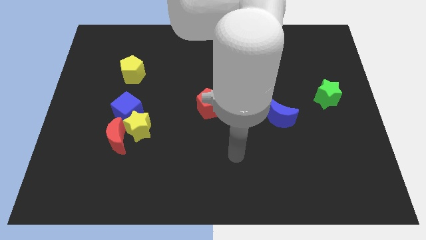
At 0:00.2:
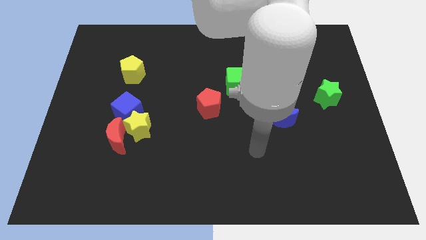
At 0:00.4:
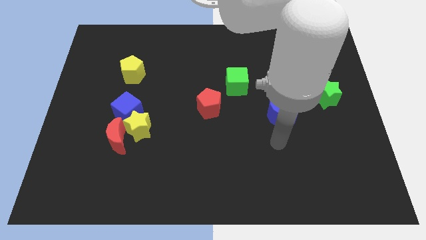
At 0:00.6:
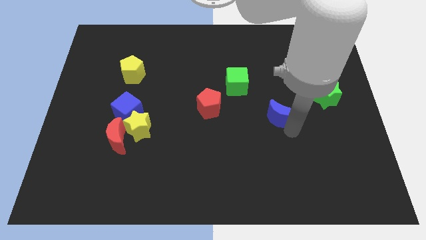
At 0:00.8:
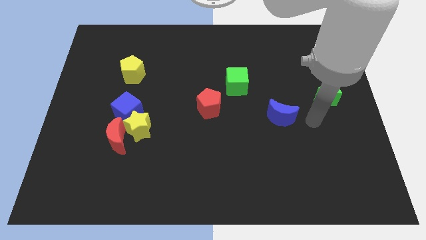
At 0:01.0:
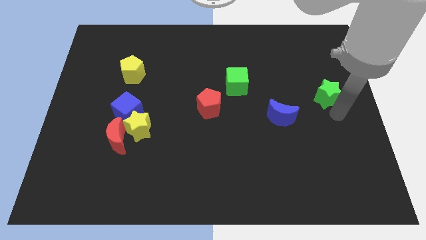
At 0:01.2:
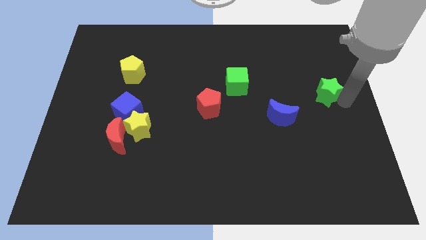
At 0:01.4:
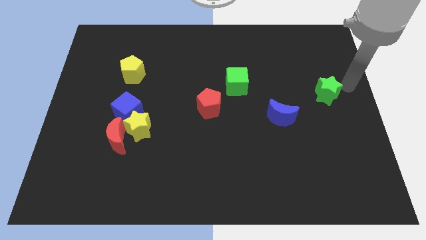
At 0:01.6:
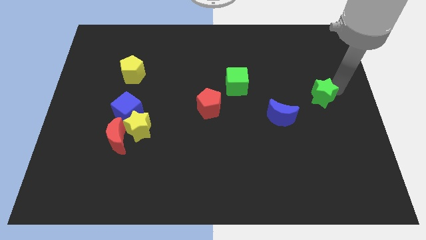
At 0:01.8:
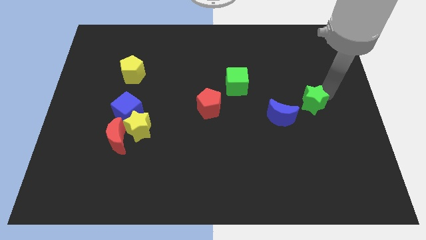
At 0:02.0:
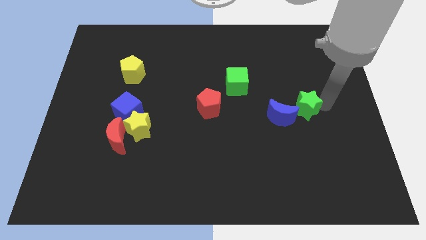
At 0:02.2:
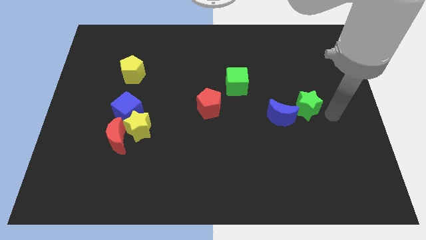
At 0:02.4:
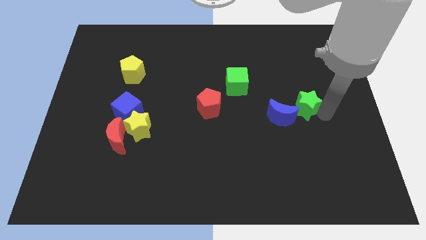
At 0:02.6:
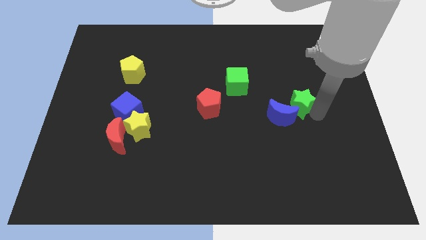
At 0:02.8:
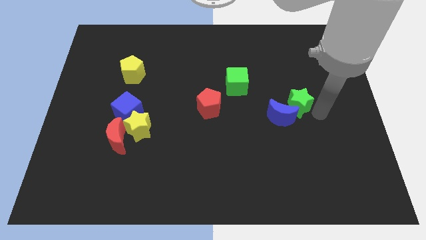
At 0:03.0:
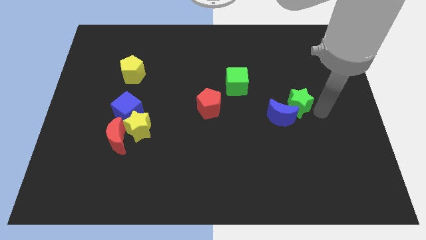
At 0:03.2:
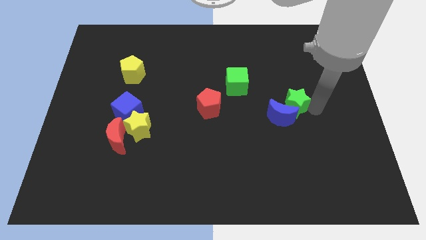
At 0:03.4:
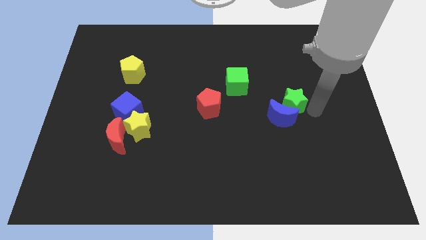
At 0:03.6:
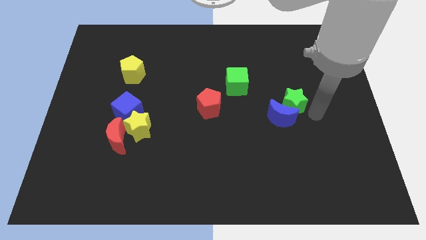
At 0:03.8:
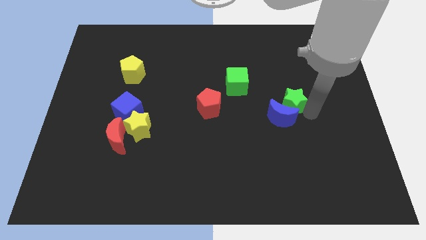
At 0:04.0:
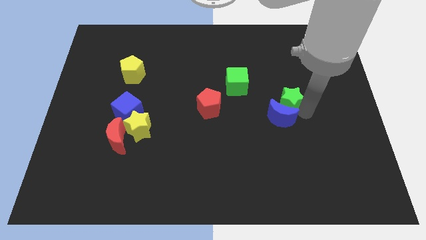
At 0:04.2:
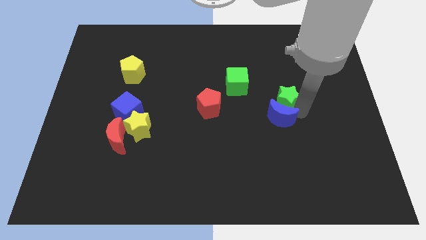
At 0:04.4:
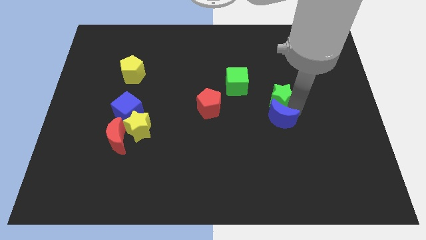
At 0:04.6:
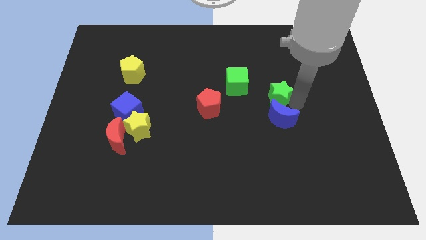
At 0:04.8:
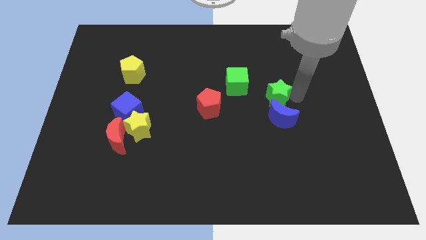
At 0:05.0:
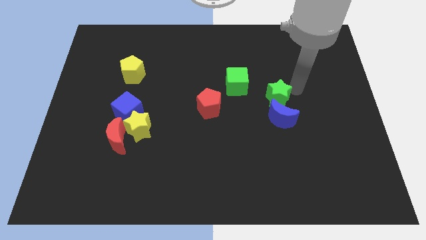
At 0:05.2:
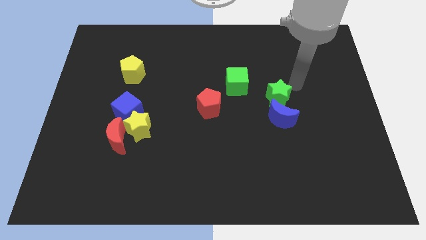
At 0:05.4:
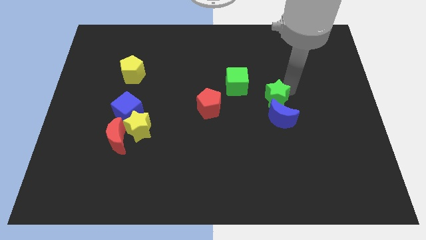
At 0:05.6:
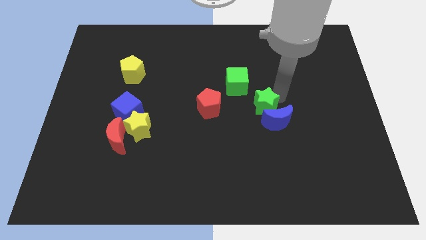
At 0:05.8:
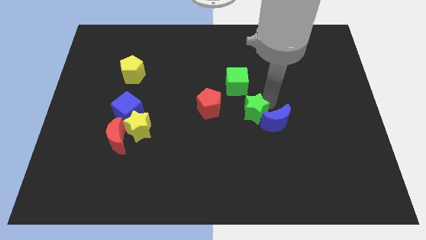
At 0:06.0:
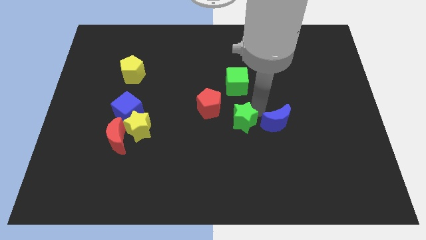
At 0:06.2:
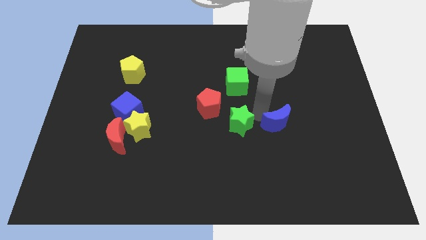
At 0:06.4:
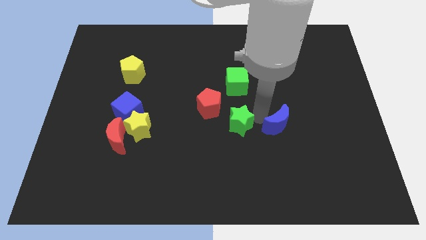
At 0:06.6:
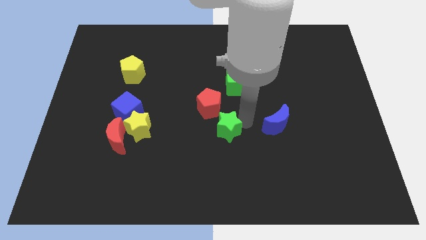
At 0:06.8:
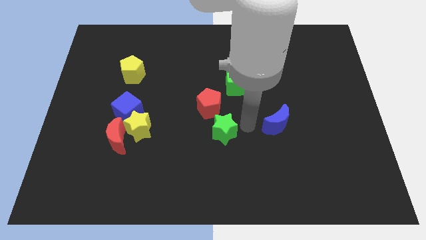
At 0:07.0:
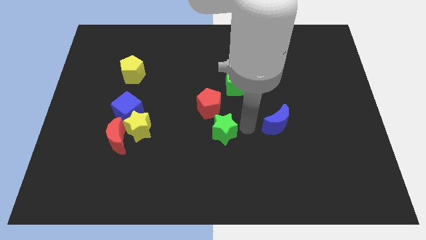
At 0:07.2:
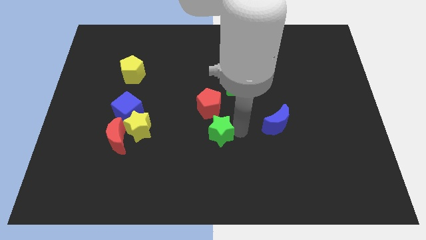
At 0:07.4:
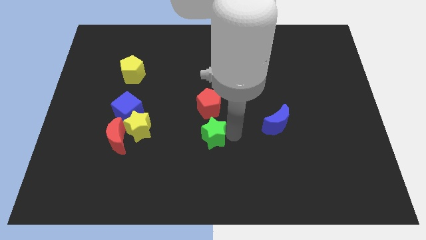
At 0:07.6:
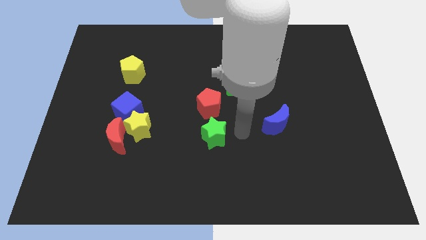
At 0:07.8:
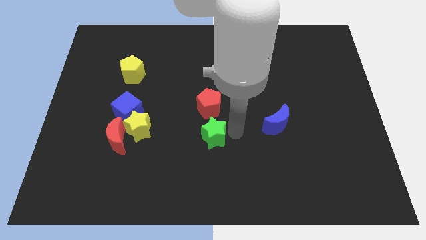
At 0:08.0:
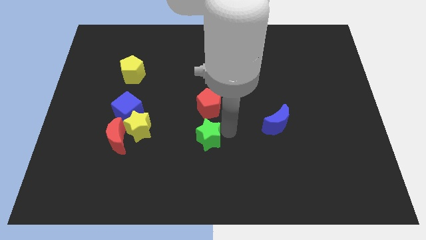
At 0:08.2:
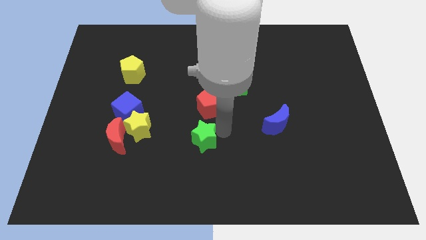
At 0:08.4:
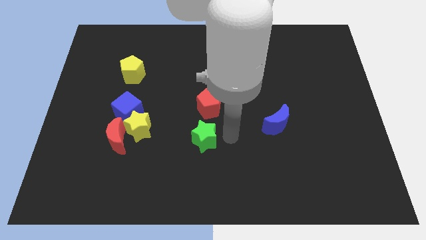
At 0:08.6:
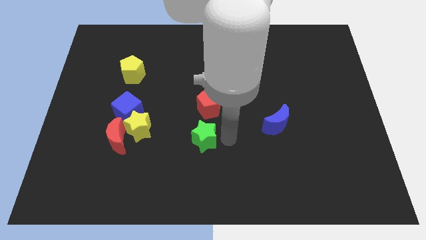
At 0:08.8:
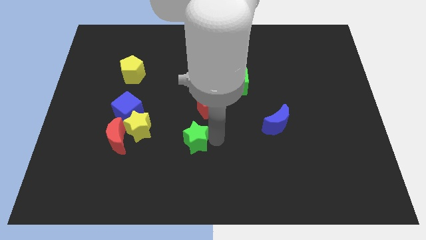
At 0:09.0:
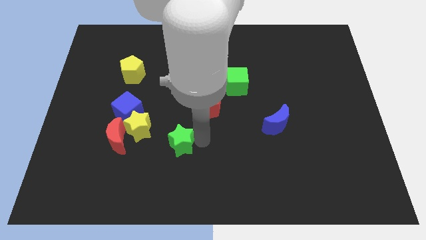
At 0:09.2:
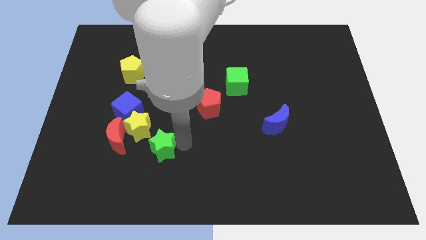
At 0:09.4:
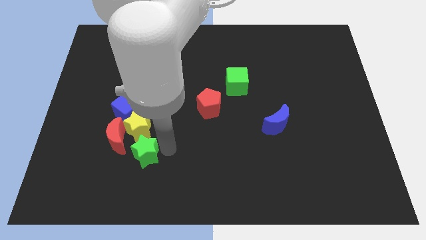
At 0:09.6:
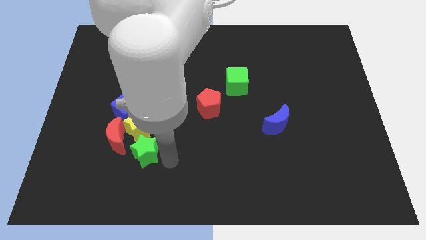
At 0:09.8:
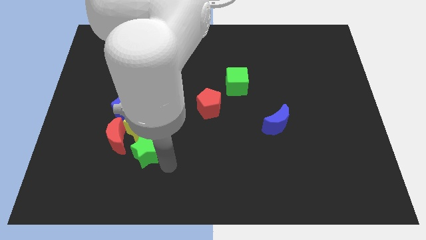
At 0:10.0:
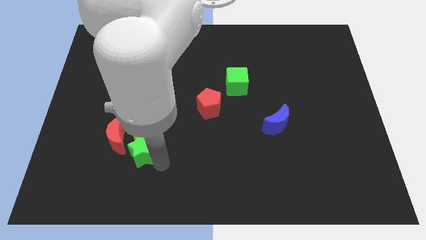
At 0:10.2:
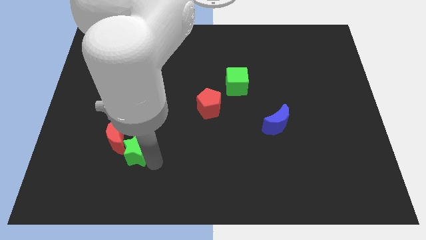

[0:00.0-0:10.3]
put the green star to the red moon

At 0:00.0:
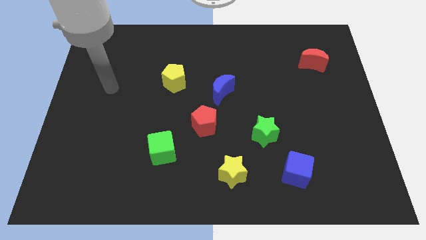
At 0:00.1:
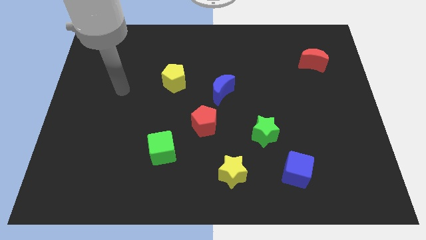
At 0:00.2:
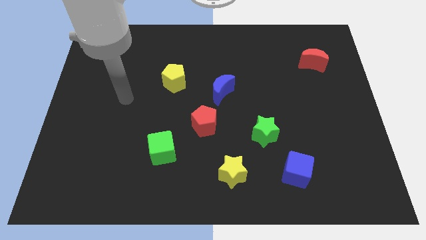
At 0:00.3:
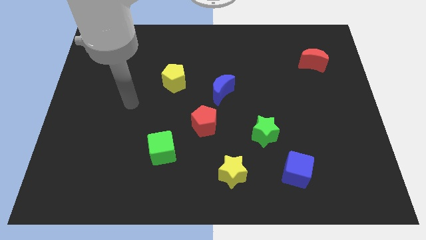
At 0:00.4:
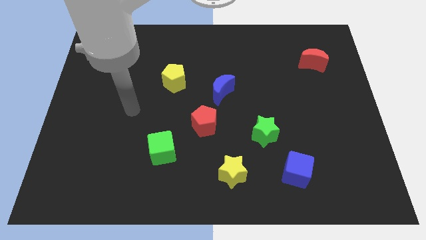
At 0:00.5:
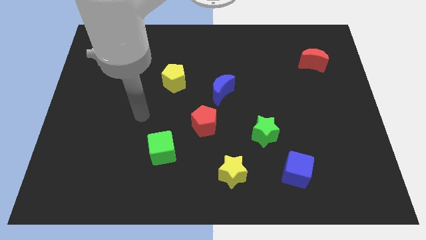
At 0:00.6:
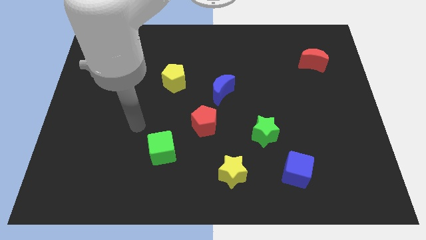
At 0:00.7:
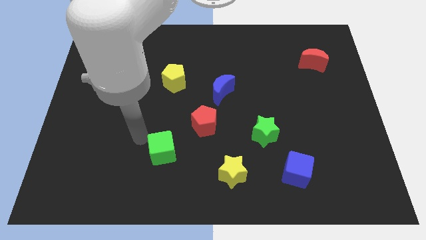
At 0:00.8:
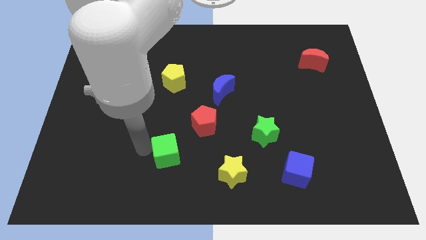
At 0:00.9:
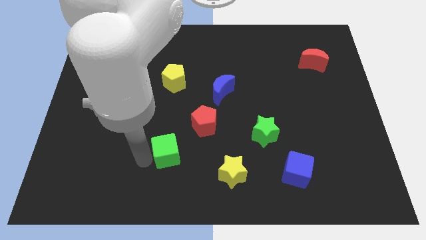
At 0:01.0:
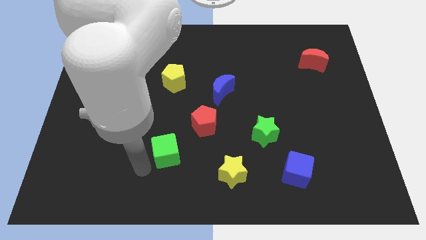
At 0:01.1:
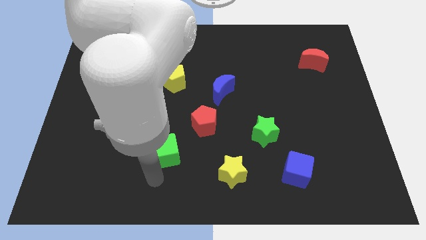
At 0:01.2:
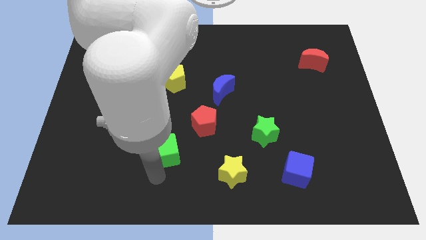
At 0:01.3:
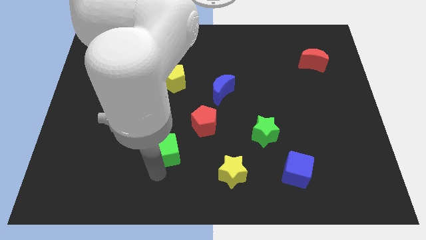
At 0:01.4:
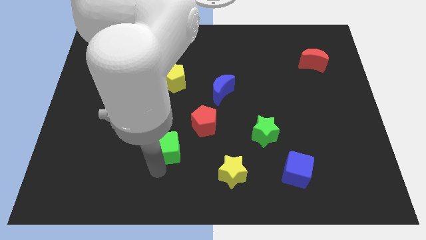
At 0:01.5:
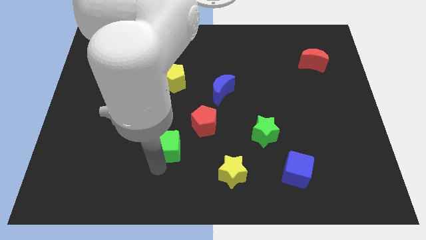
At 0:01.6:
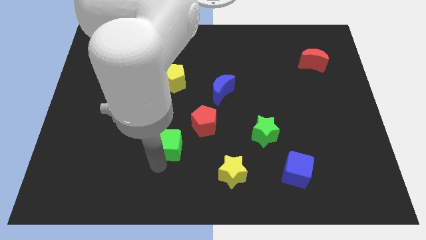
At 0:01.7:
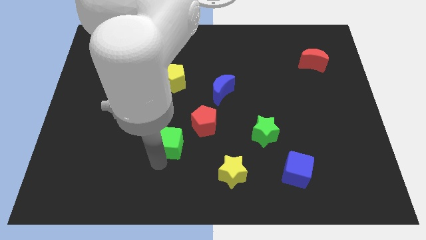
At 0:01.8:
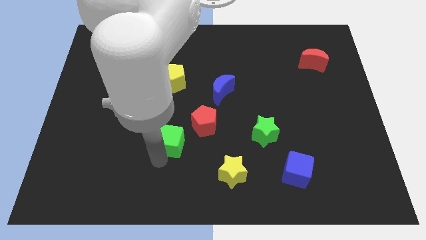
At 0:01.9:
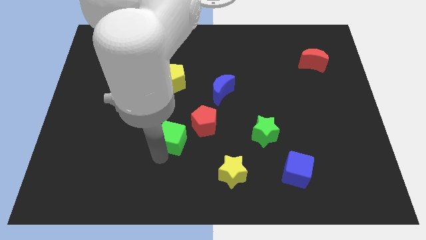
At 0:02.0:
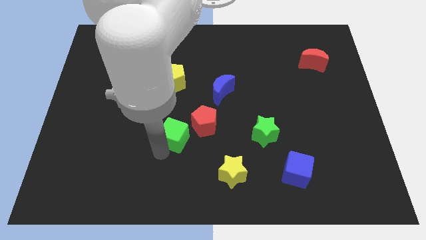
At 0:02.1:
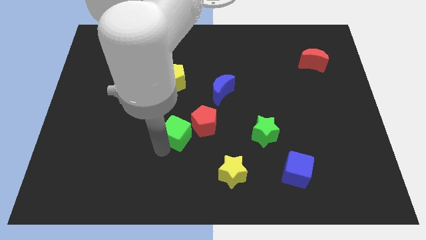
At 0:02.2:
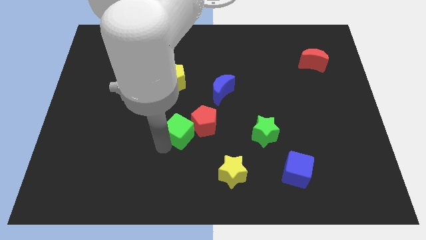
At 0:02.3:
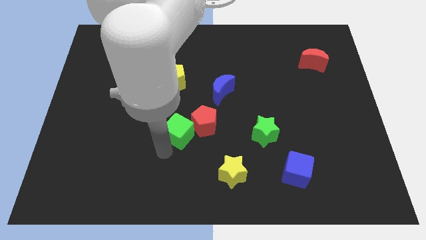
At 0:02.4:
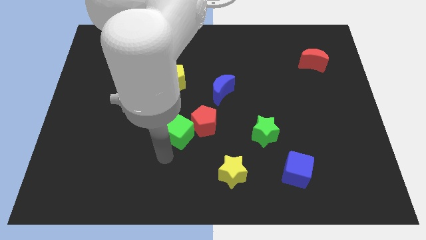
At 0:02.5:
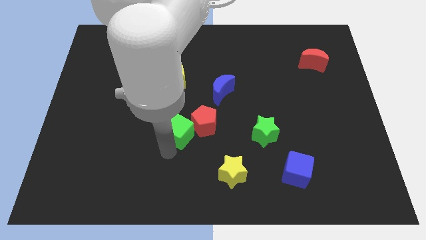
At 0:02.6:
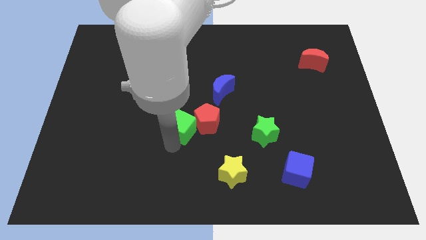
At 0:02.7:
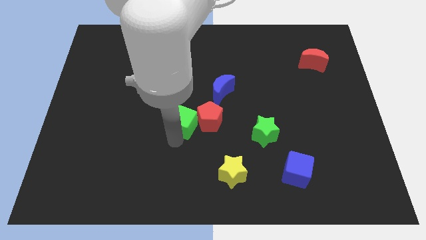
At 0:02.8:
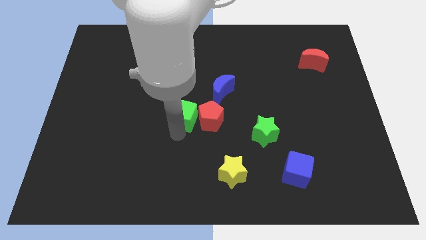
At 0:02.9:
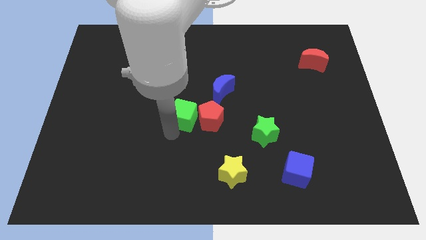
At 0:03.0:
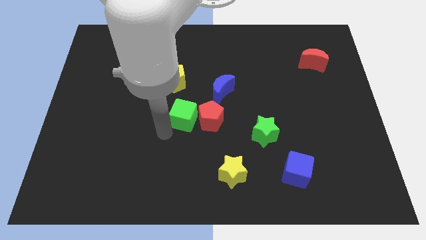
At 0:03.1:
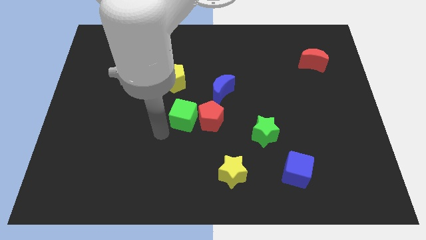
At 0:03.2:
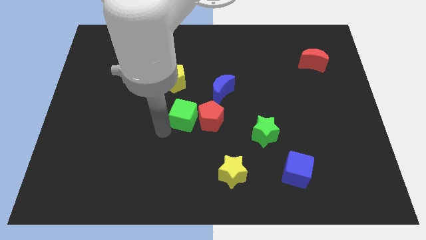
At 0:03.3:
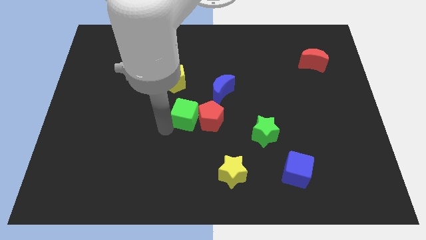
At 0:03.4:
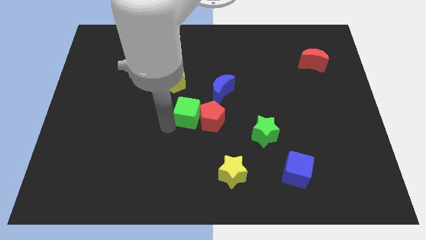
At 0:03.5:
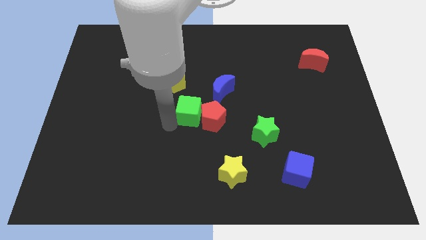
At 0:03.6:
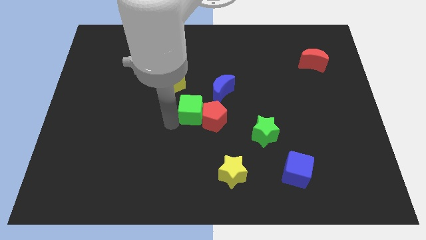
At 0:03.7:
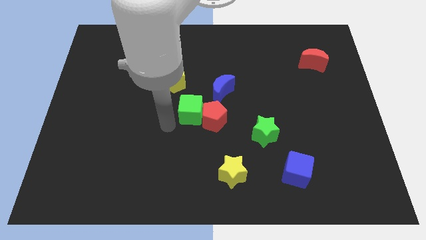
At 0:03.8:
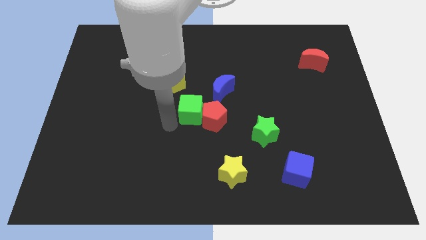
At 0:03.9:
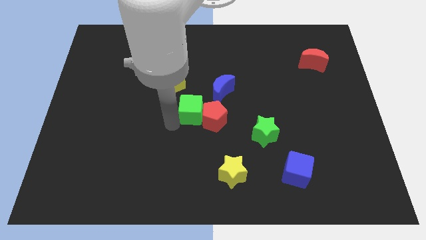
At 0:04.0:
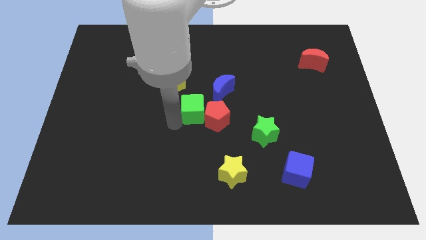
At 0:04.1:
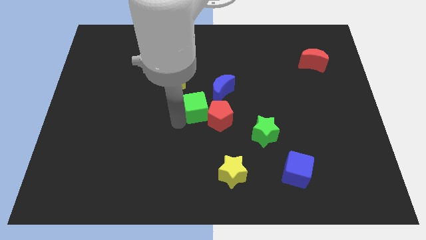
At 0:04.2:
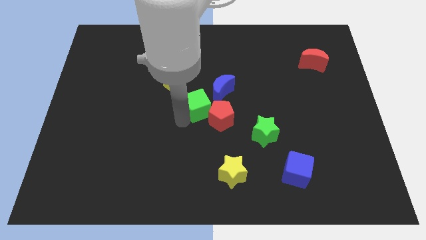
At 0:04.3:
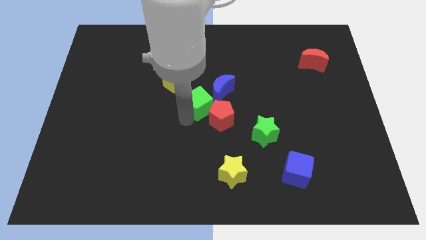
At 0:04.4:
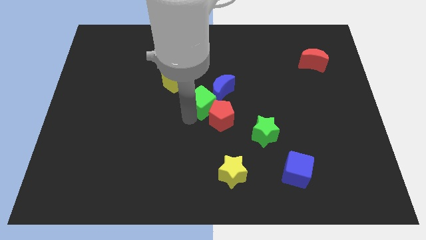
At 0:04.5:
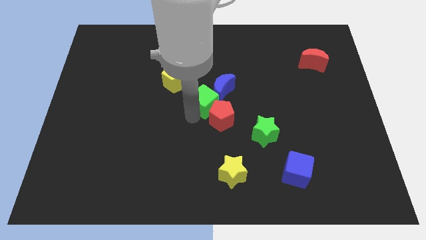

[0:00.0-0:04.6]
slide the green cube to the blue moon
